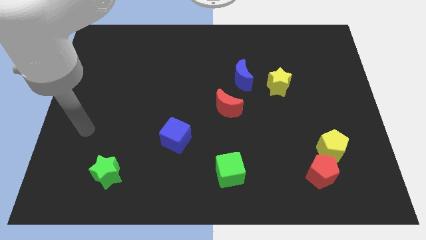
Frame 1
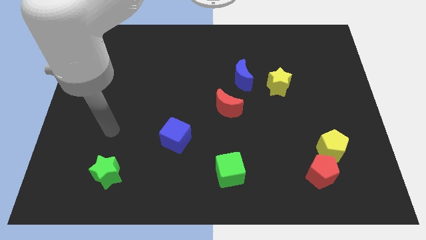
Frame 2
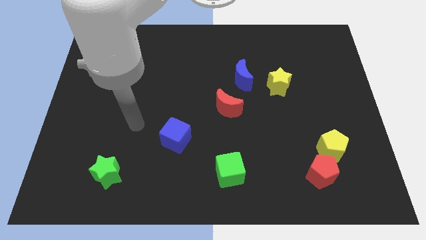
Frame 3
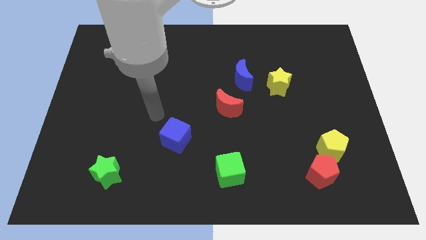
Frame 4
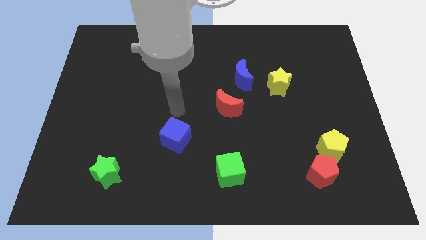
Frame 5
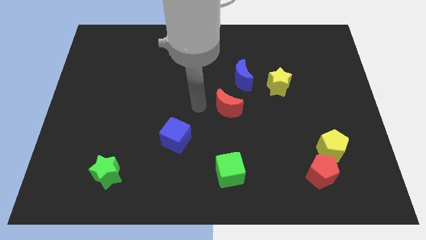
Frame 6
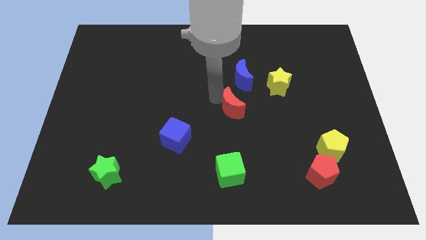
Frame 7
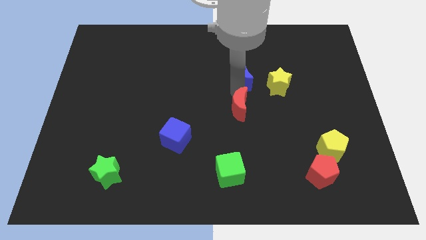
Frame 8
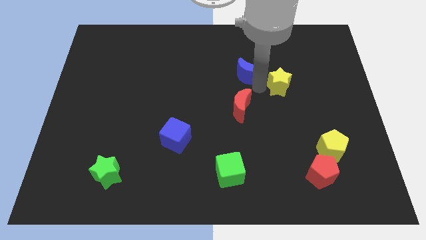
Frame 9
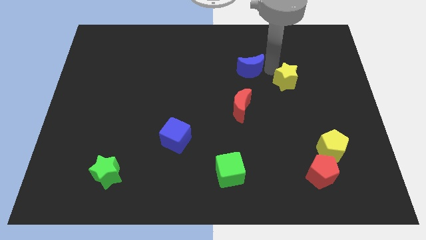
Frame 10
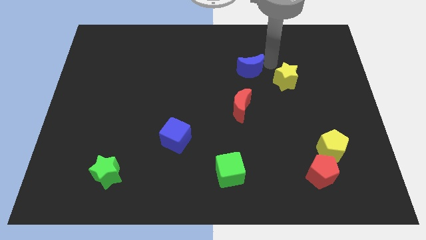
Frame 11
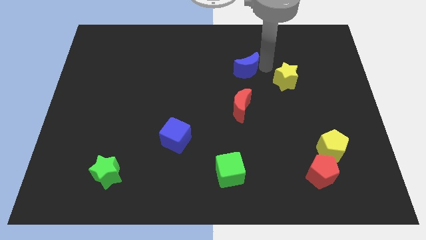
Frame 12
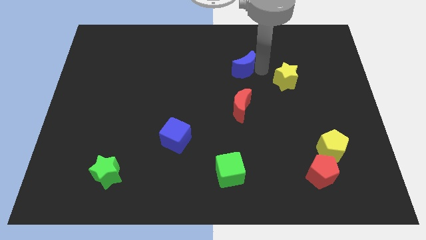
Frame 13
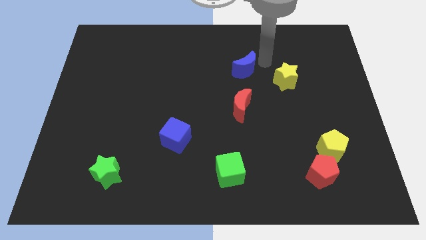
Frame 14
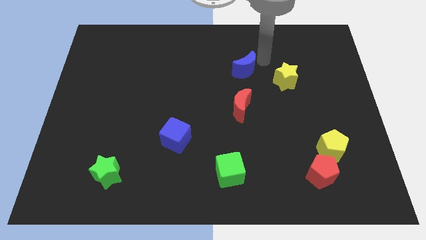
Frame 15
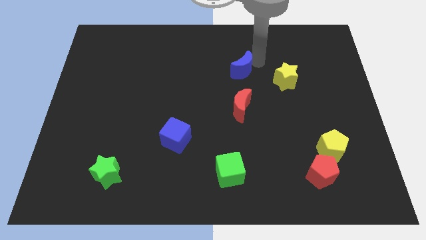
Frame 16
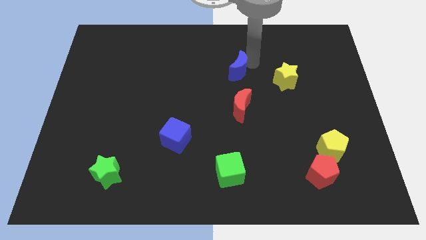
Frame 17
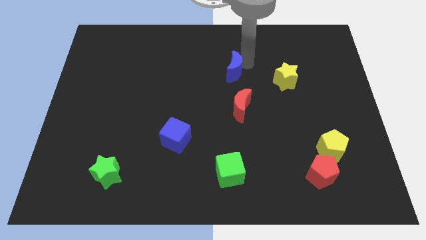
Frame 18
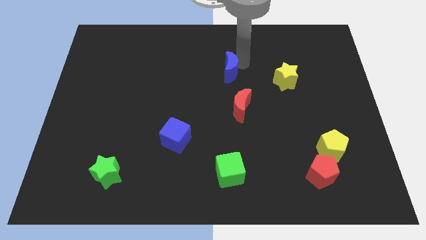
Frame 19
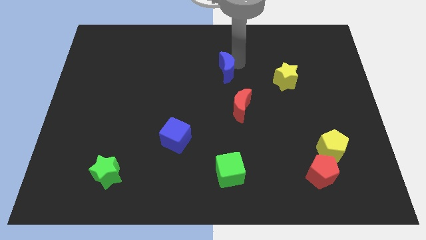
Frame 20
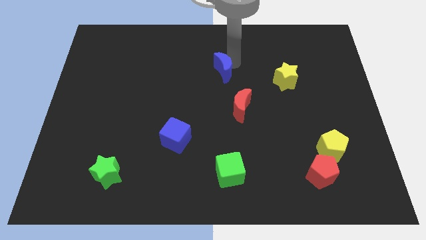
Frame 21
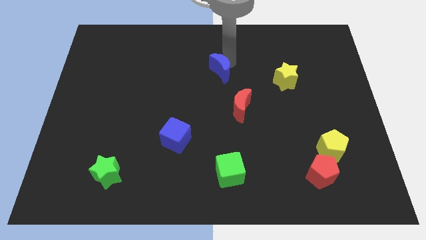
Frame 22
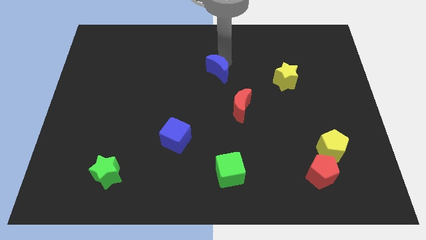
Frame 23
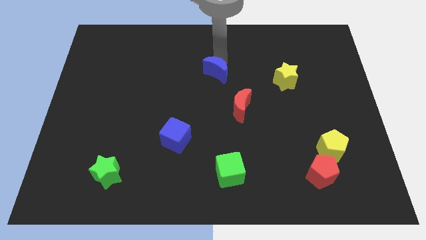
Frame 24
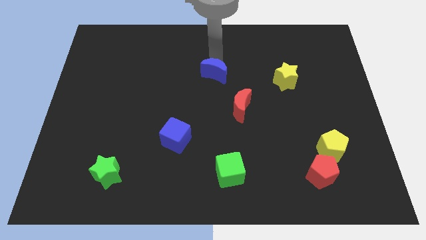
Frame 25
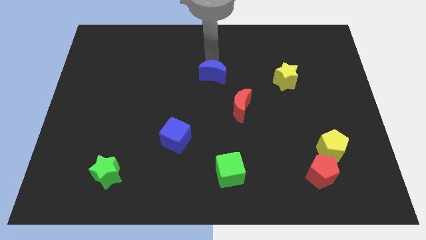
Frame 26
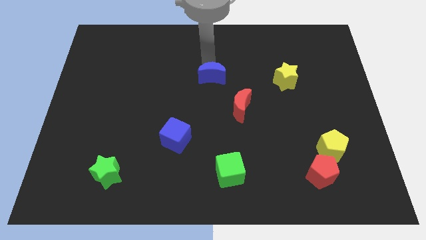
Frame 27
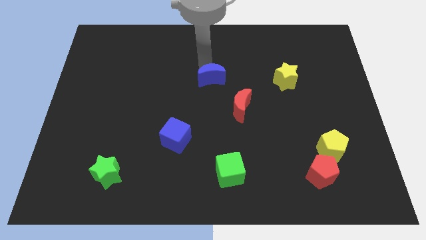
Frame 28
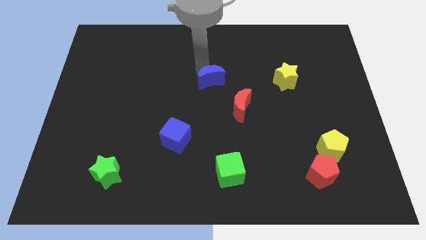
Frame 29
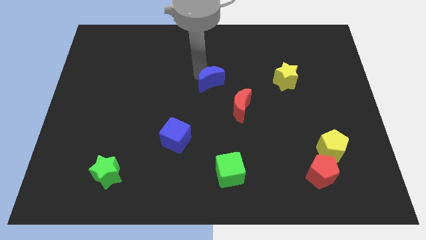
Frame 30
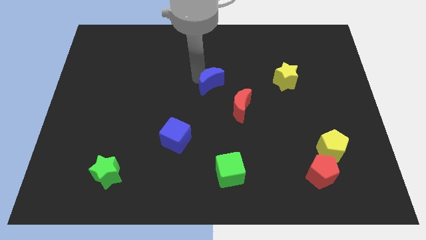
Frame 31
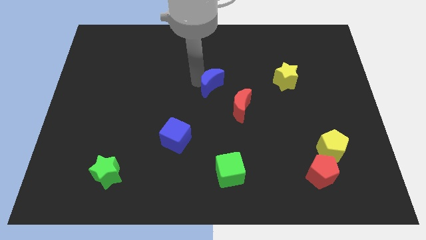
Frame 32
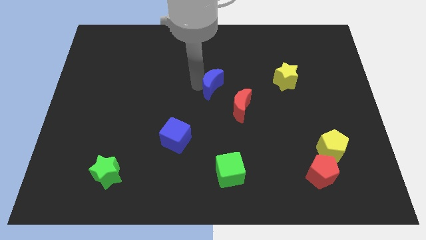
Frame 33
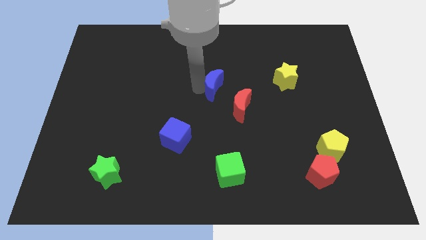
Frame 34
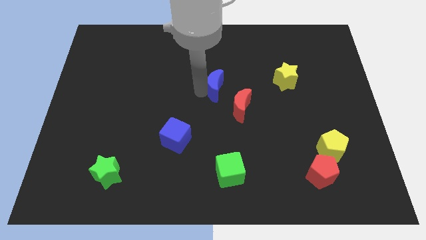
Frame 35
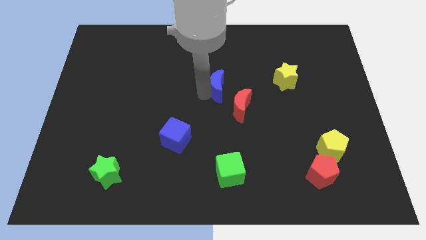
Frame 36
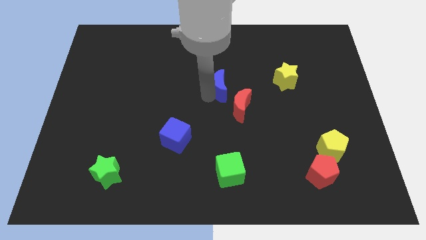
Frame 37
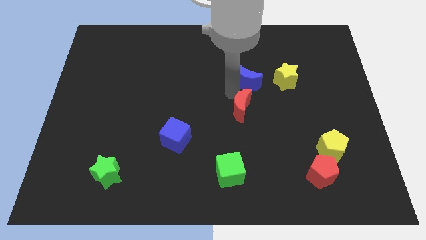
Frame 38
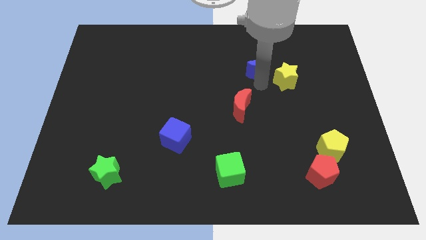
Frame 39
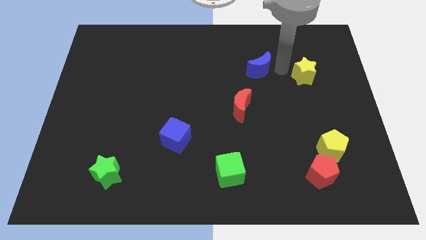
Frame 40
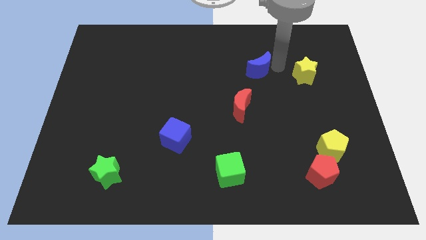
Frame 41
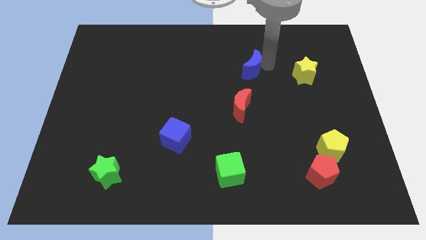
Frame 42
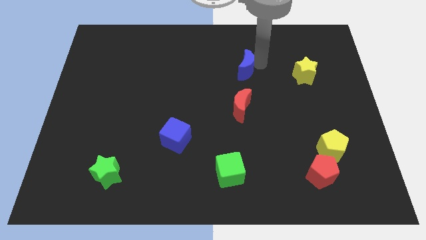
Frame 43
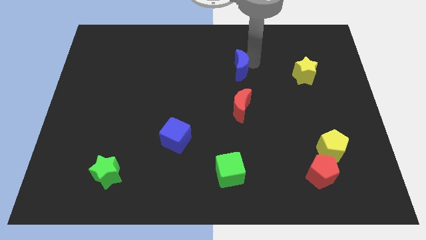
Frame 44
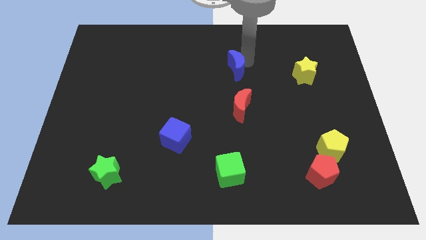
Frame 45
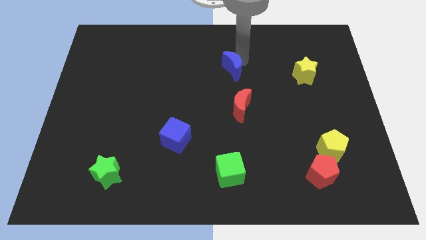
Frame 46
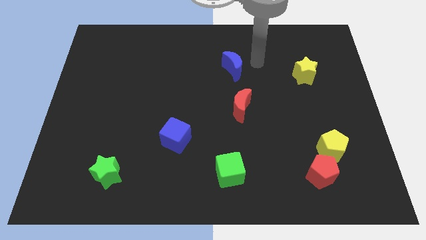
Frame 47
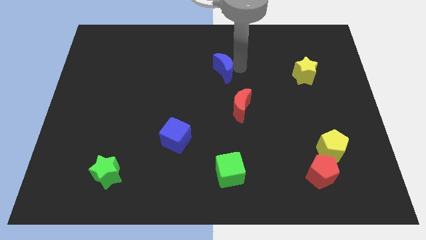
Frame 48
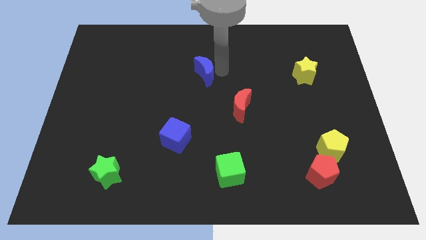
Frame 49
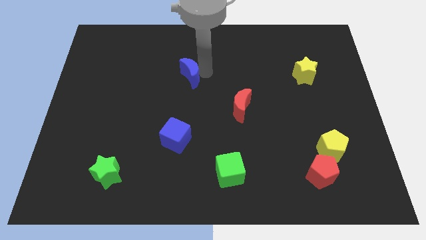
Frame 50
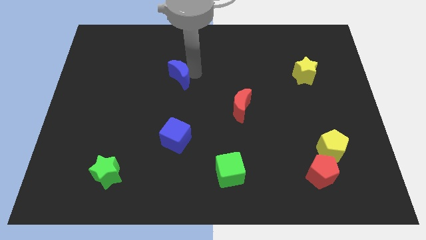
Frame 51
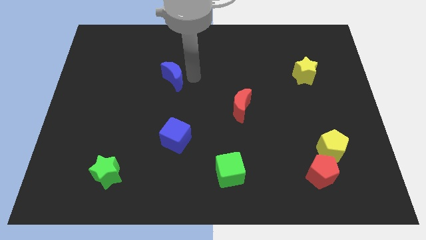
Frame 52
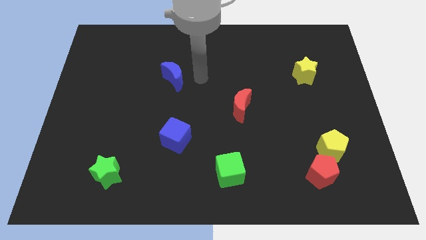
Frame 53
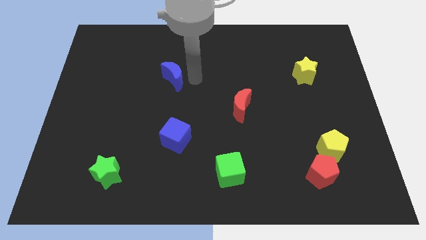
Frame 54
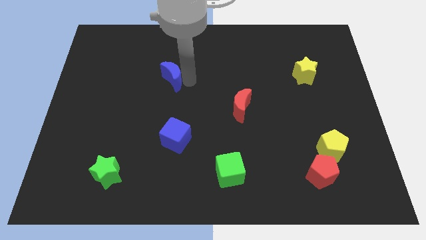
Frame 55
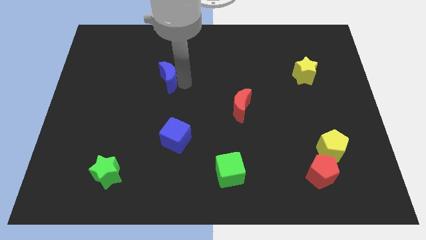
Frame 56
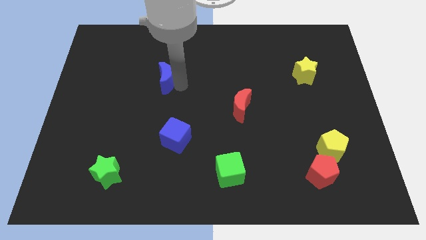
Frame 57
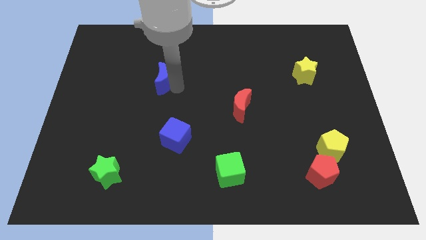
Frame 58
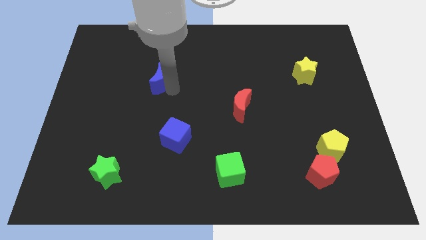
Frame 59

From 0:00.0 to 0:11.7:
move the blue moon to the left

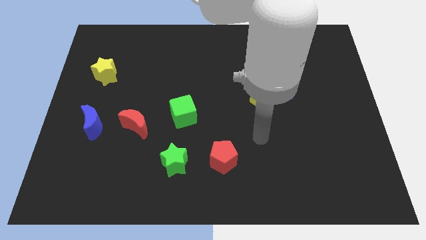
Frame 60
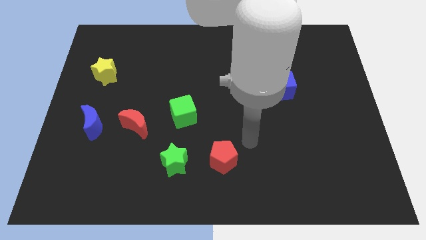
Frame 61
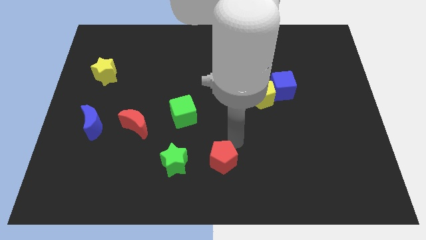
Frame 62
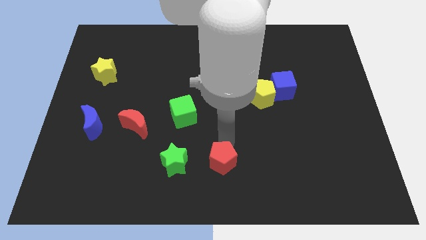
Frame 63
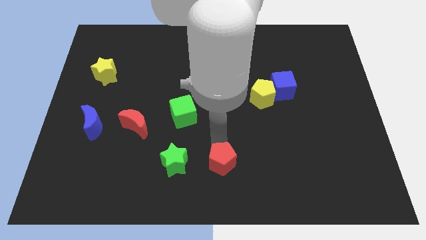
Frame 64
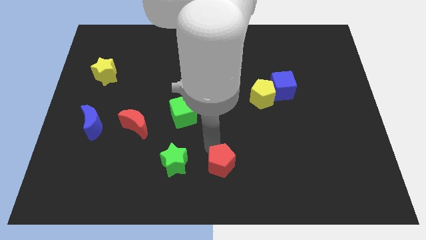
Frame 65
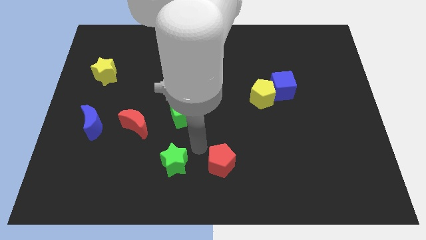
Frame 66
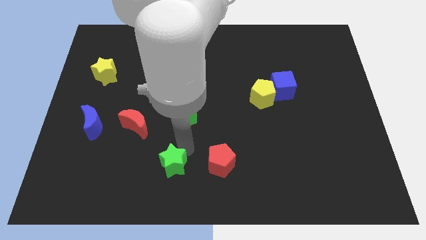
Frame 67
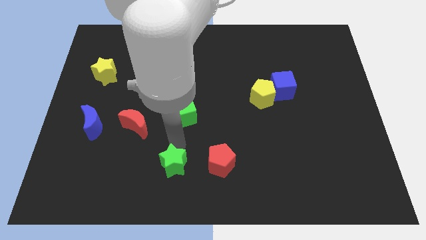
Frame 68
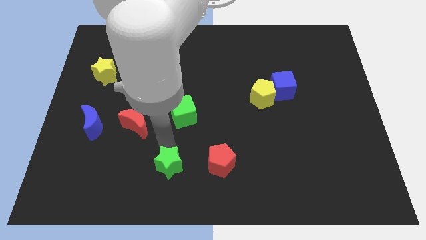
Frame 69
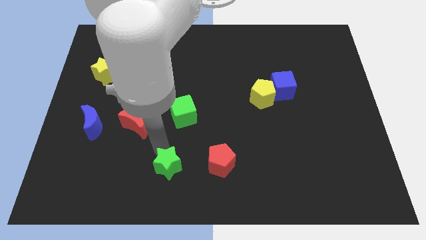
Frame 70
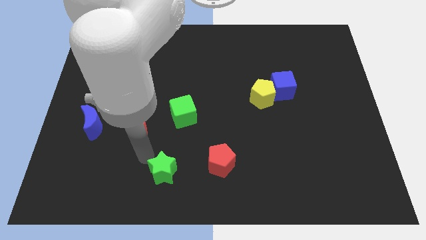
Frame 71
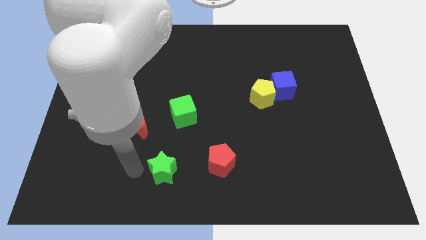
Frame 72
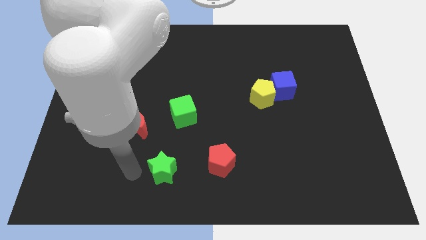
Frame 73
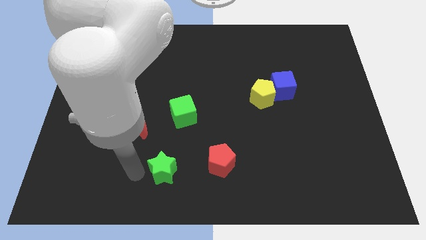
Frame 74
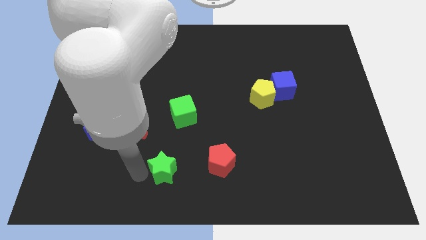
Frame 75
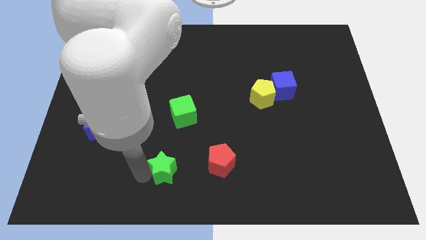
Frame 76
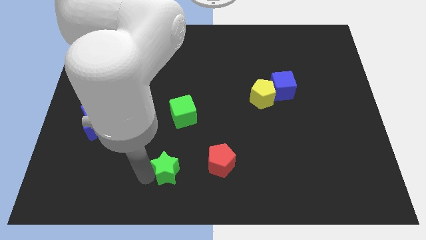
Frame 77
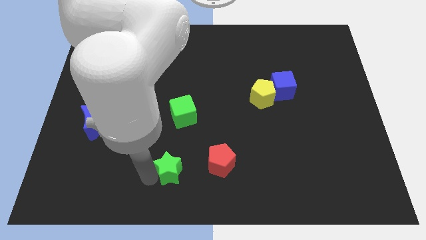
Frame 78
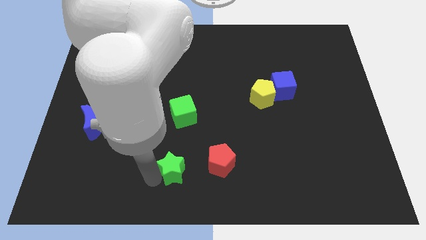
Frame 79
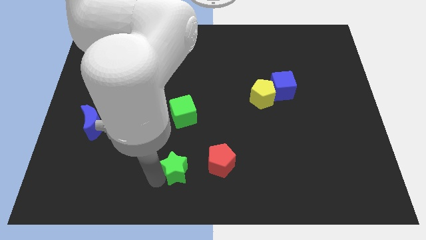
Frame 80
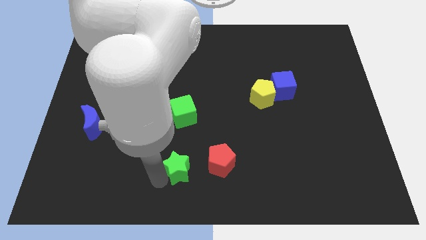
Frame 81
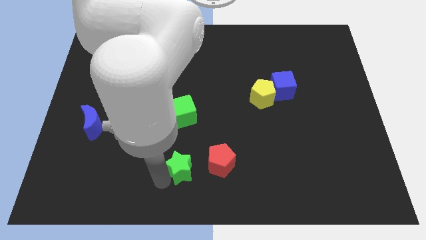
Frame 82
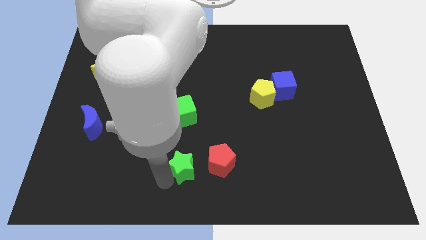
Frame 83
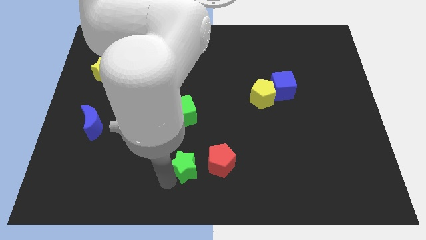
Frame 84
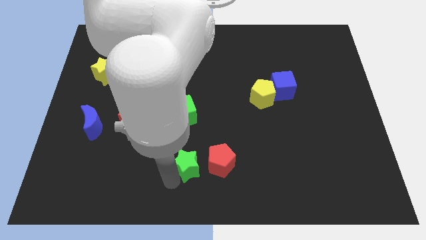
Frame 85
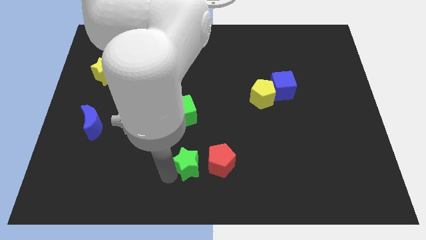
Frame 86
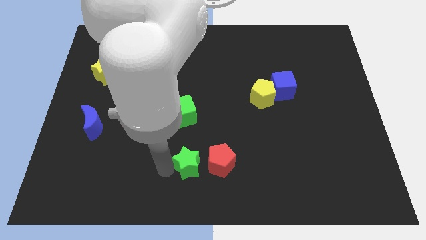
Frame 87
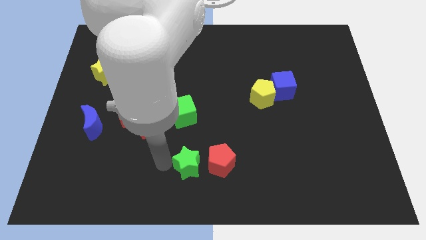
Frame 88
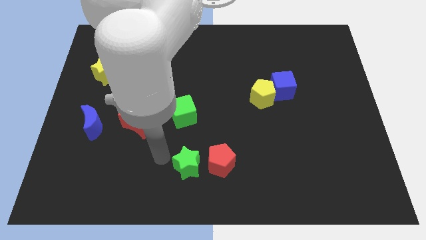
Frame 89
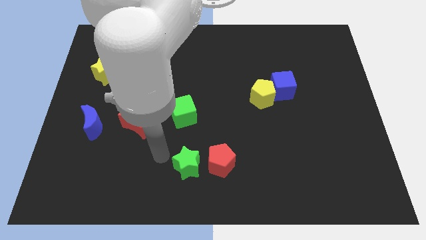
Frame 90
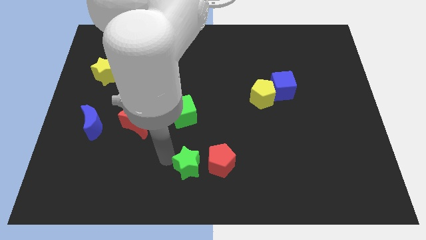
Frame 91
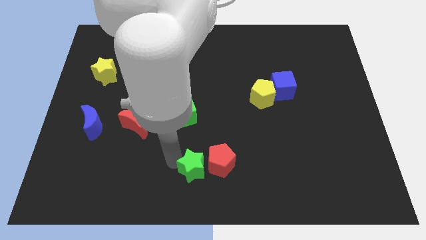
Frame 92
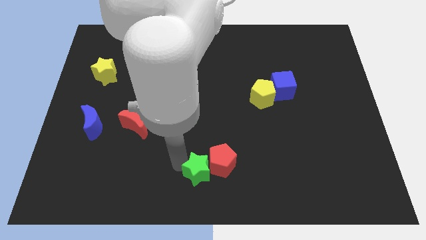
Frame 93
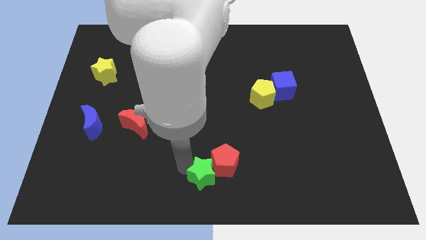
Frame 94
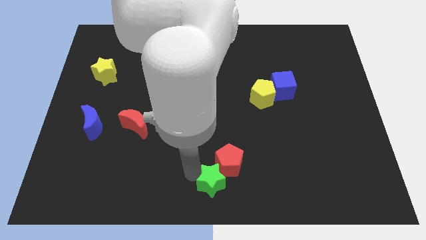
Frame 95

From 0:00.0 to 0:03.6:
slightly move the green star to the right
